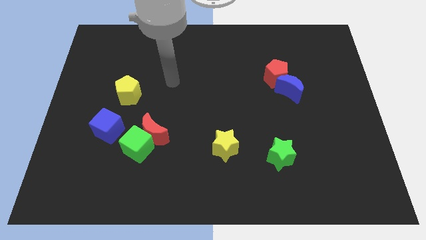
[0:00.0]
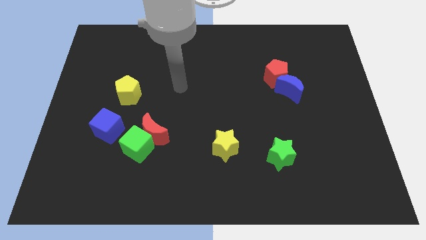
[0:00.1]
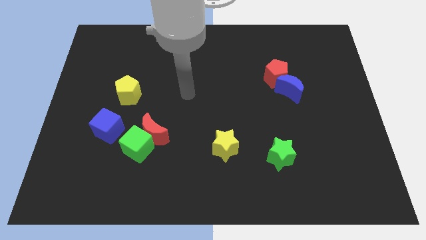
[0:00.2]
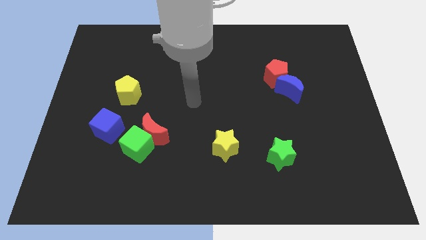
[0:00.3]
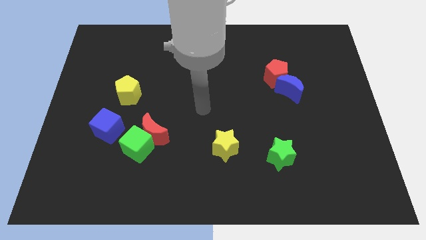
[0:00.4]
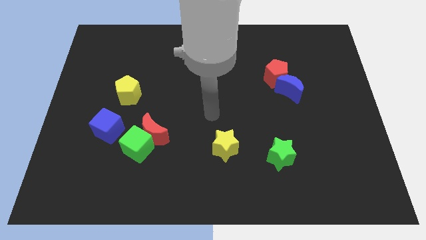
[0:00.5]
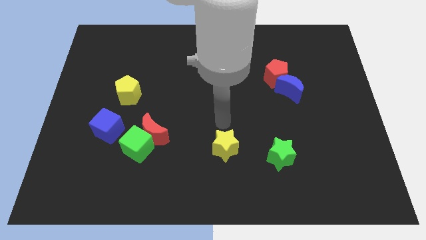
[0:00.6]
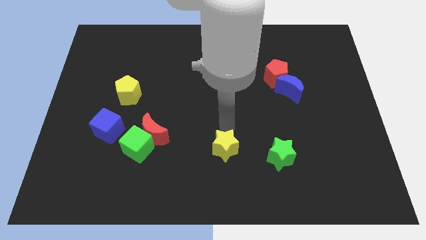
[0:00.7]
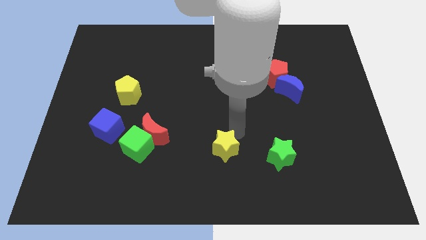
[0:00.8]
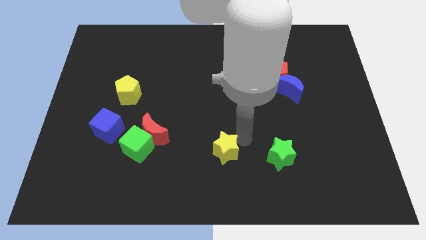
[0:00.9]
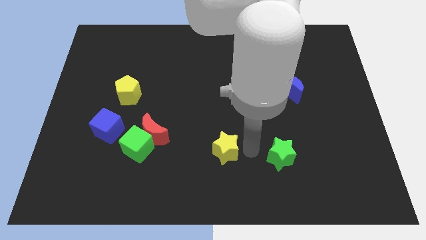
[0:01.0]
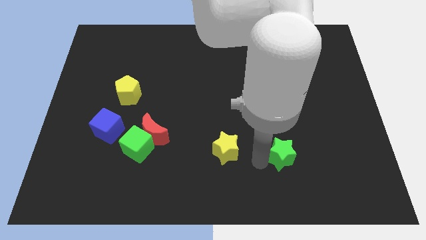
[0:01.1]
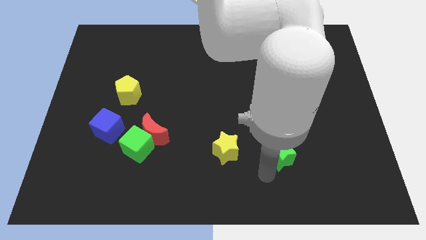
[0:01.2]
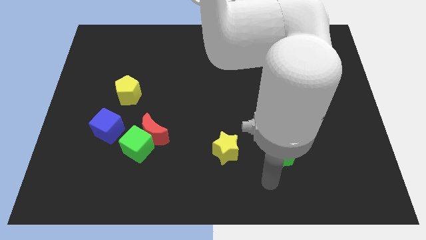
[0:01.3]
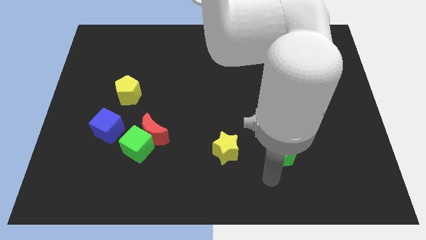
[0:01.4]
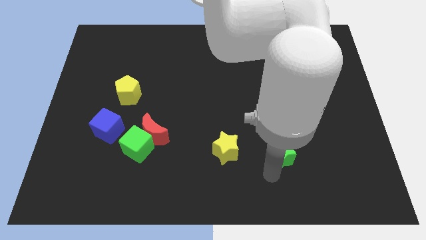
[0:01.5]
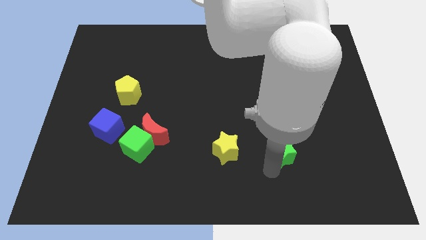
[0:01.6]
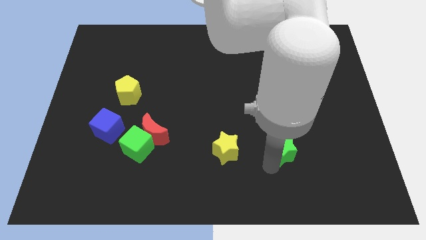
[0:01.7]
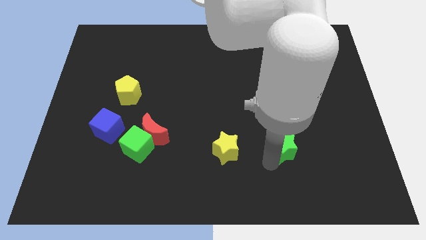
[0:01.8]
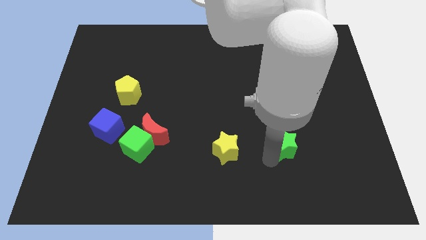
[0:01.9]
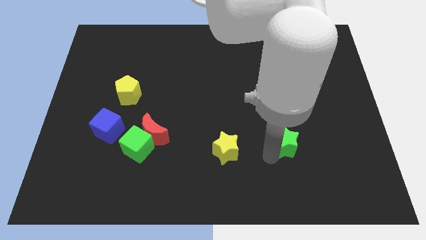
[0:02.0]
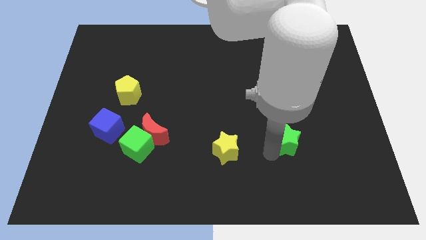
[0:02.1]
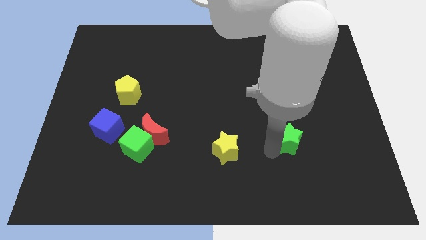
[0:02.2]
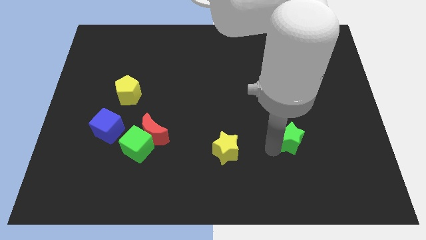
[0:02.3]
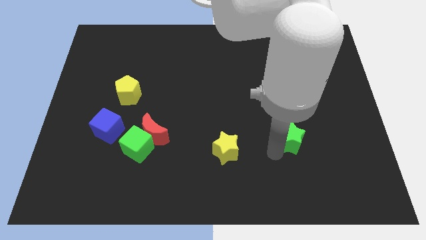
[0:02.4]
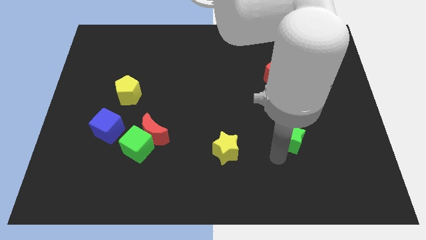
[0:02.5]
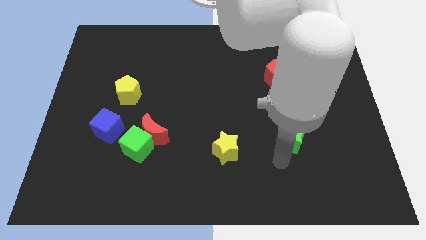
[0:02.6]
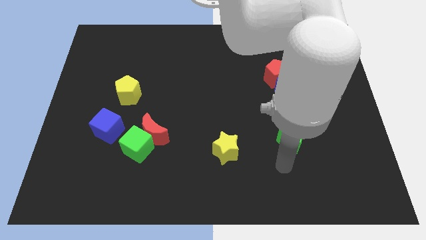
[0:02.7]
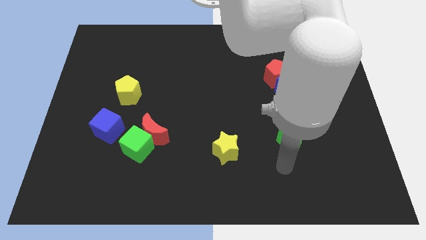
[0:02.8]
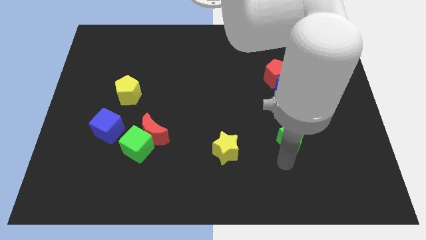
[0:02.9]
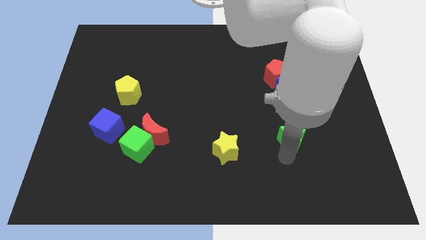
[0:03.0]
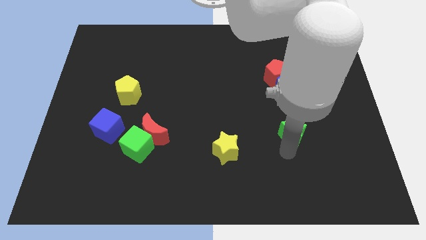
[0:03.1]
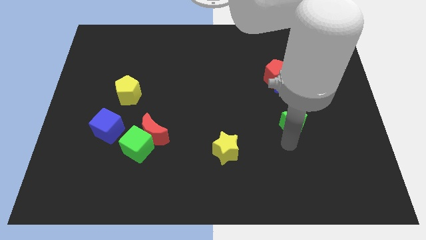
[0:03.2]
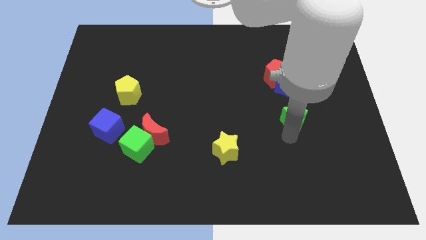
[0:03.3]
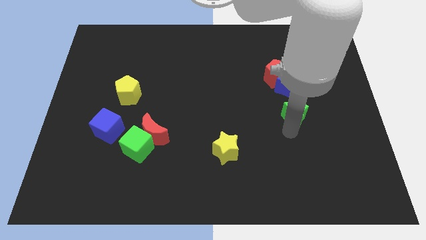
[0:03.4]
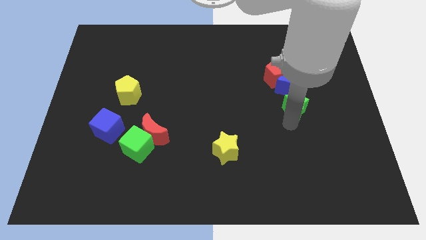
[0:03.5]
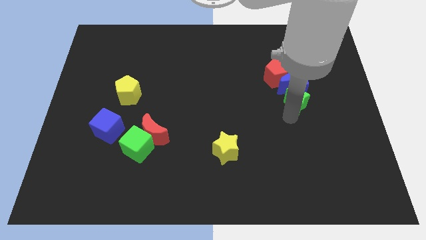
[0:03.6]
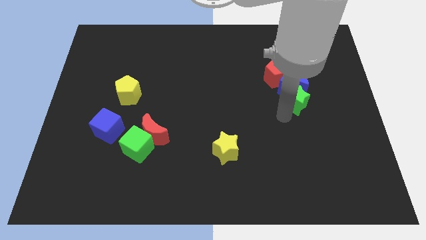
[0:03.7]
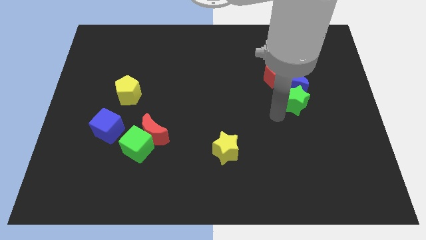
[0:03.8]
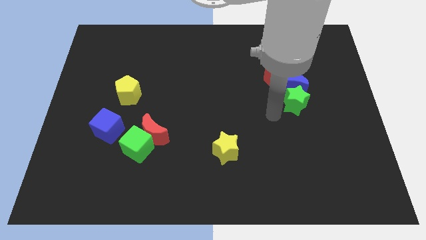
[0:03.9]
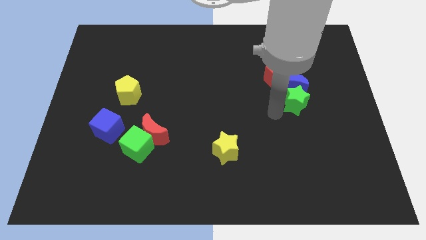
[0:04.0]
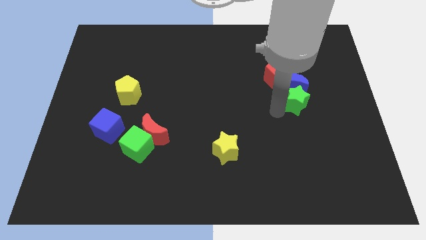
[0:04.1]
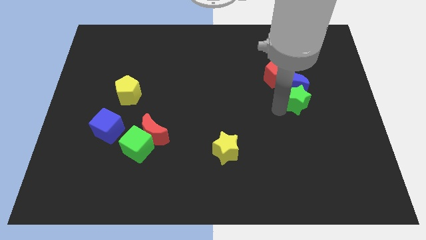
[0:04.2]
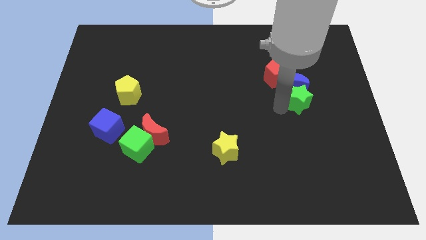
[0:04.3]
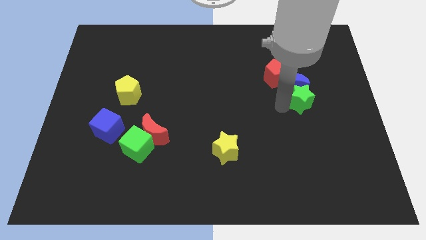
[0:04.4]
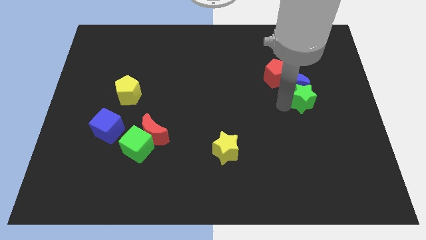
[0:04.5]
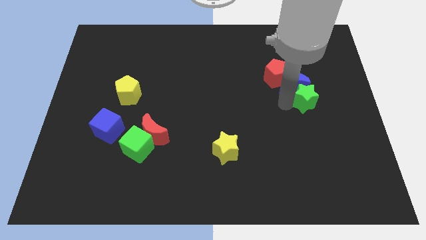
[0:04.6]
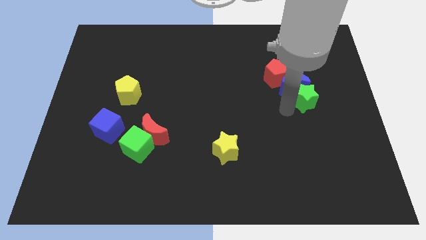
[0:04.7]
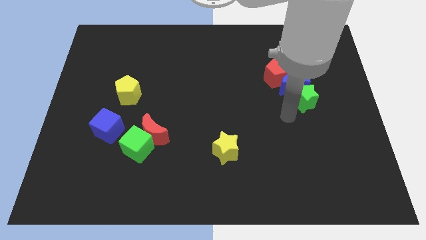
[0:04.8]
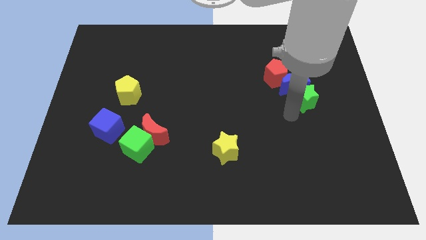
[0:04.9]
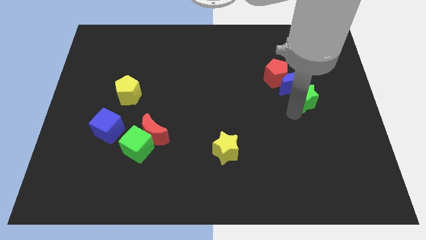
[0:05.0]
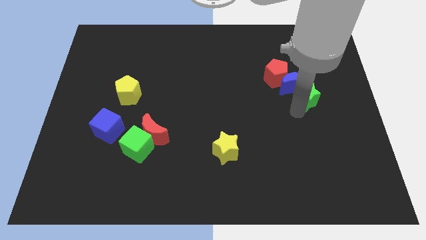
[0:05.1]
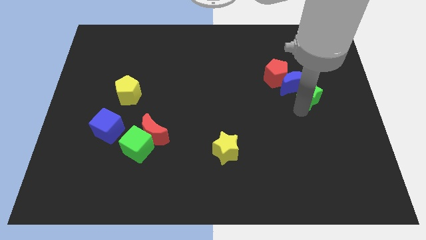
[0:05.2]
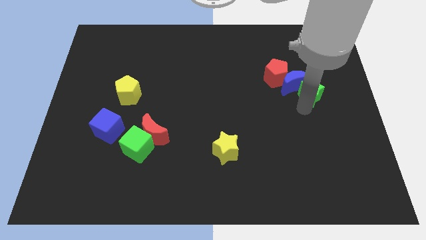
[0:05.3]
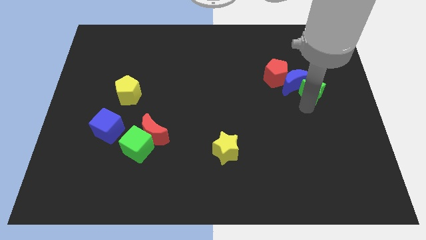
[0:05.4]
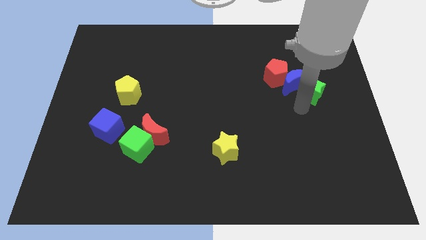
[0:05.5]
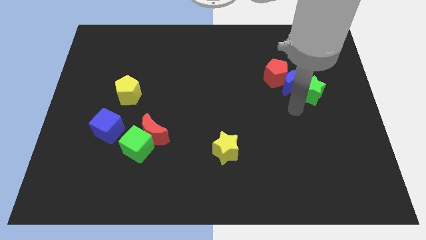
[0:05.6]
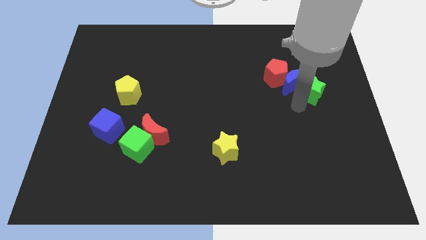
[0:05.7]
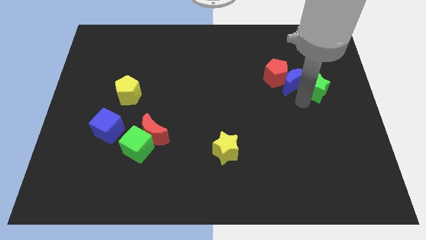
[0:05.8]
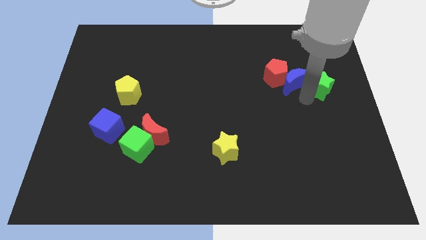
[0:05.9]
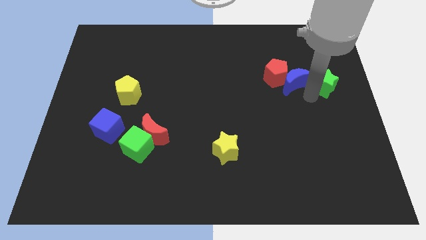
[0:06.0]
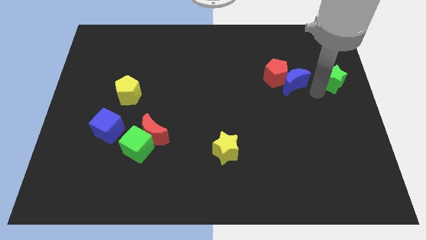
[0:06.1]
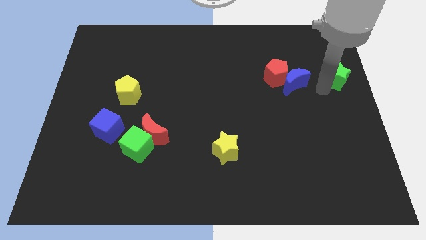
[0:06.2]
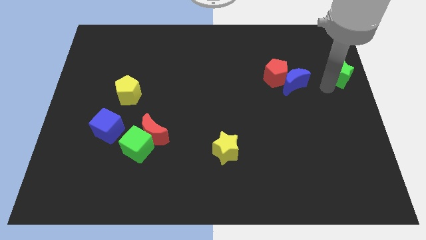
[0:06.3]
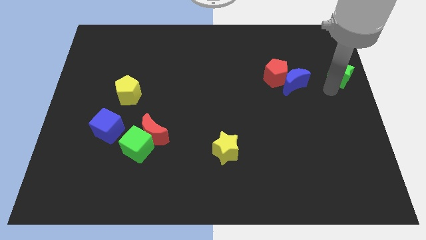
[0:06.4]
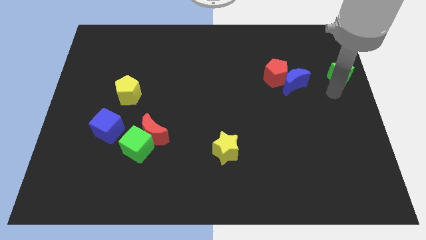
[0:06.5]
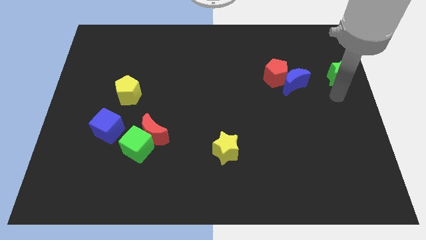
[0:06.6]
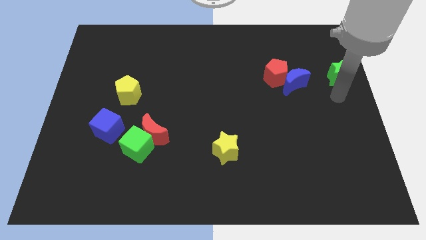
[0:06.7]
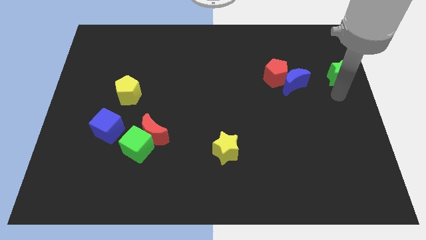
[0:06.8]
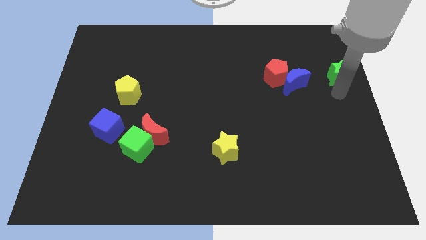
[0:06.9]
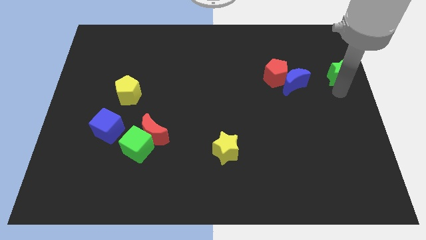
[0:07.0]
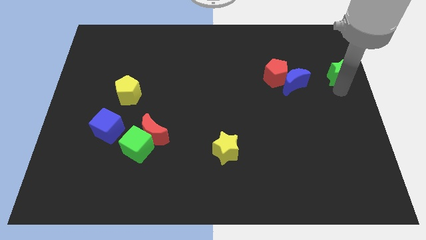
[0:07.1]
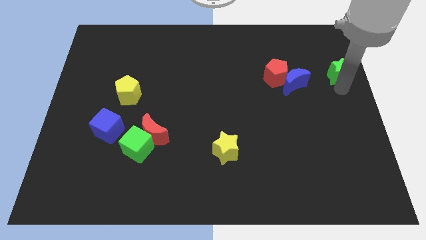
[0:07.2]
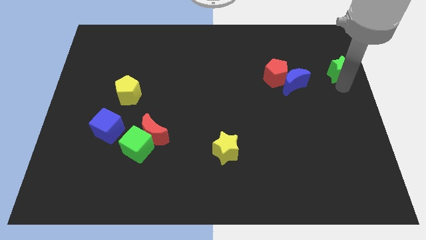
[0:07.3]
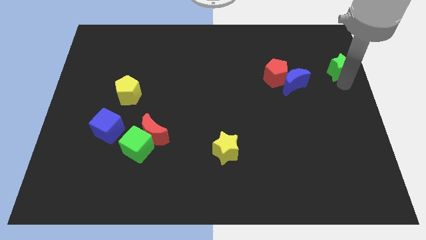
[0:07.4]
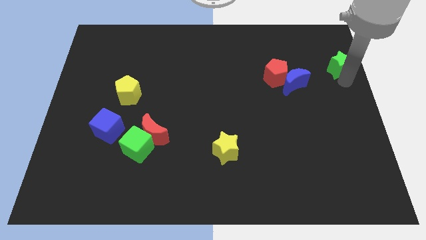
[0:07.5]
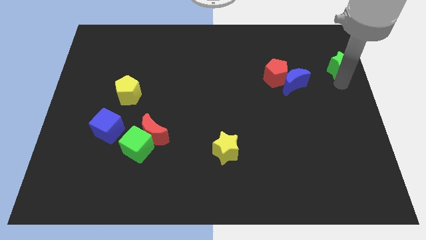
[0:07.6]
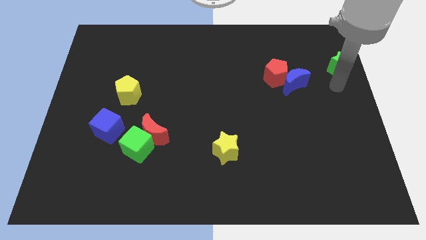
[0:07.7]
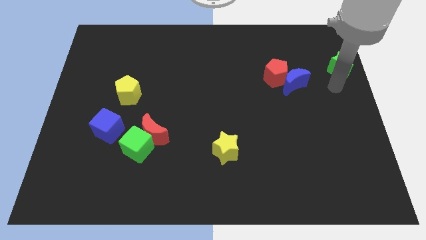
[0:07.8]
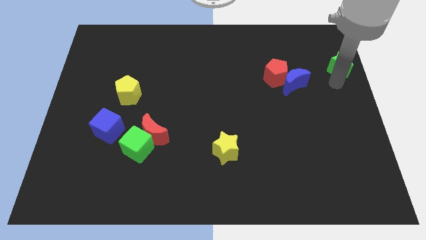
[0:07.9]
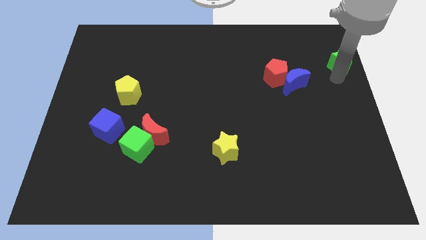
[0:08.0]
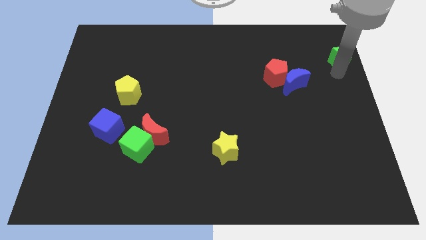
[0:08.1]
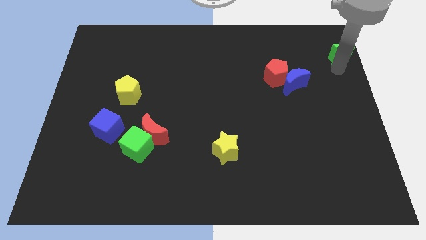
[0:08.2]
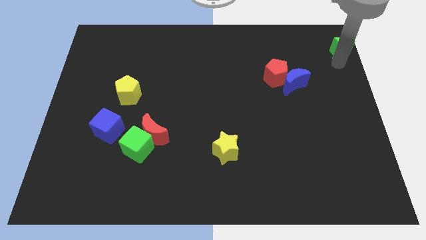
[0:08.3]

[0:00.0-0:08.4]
move the green star to the top right
